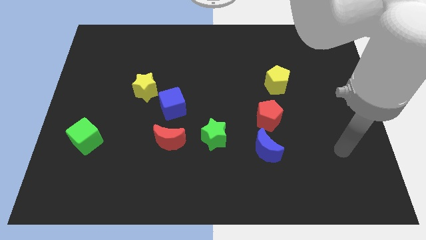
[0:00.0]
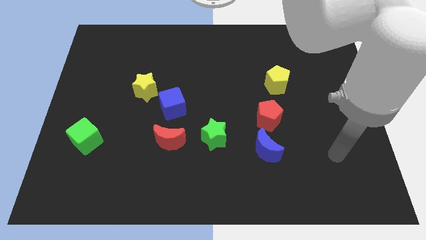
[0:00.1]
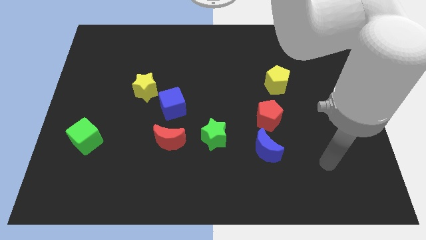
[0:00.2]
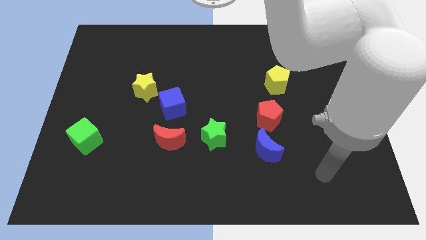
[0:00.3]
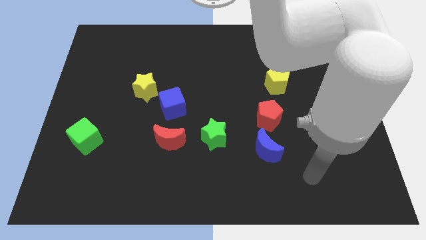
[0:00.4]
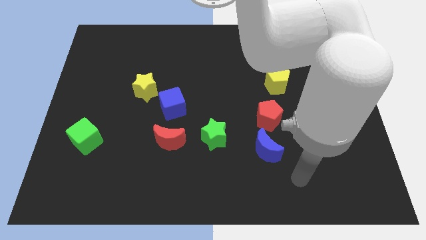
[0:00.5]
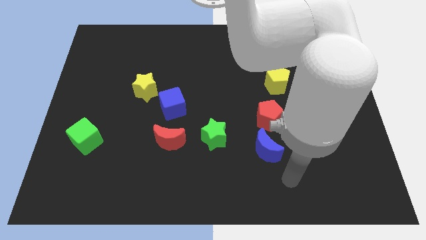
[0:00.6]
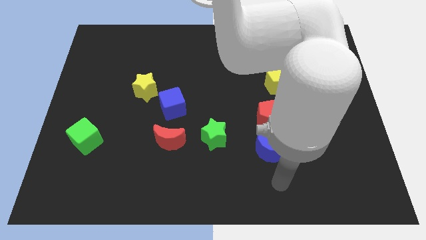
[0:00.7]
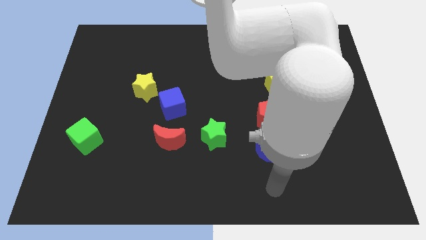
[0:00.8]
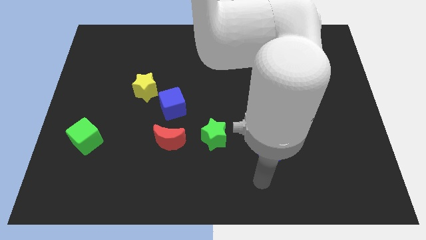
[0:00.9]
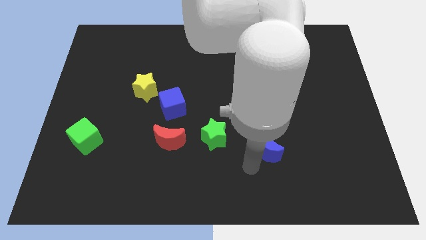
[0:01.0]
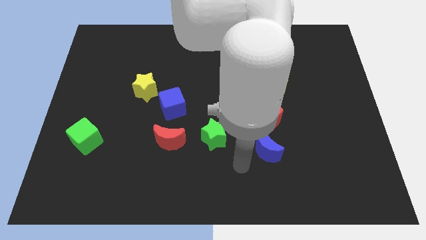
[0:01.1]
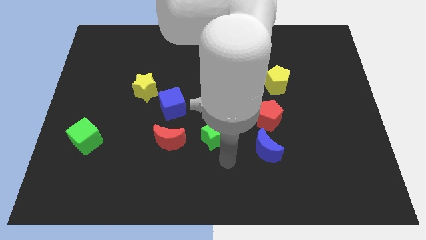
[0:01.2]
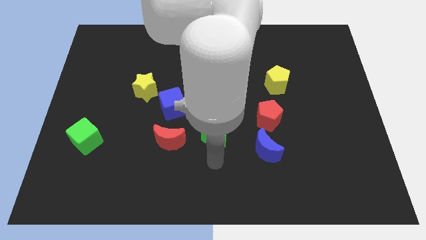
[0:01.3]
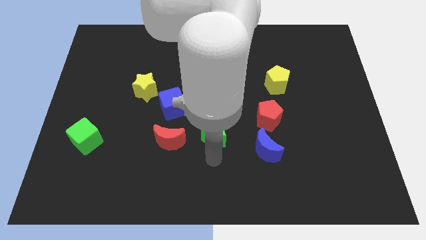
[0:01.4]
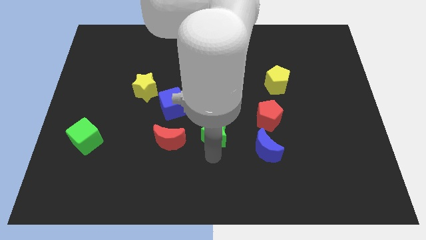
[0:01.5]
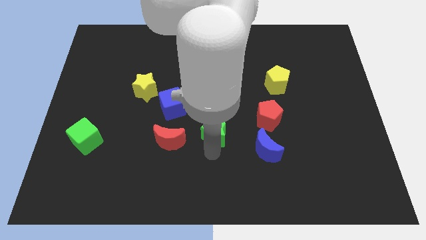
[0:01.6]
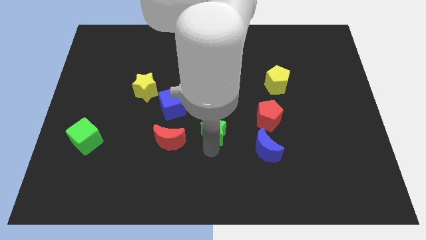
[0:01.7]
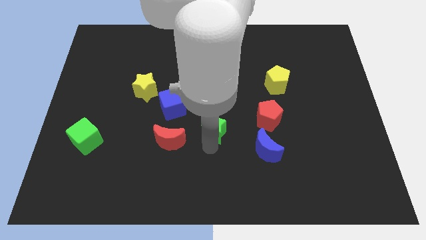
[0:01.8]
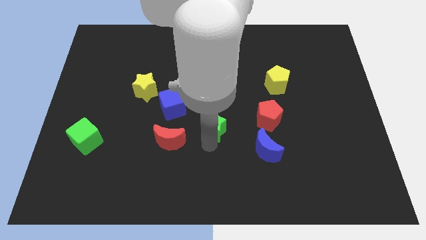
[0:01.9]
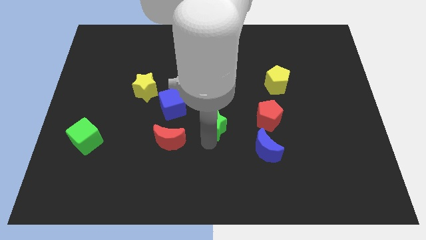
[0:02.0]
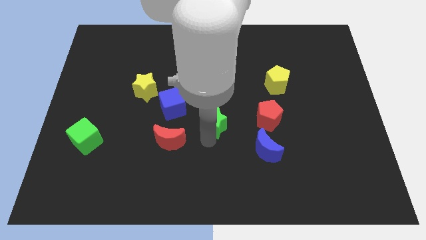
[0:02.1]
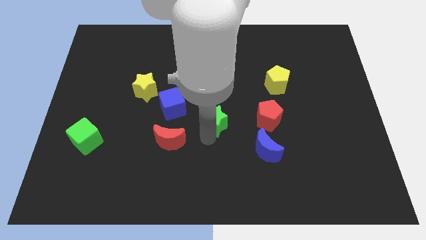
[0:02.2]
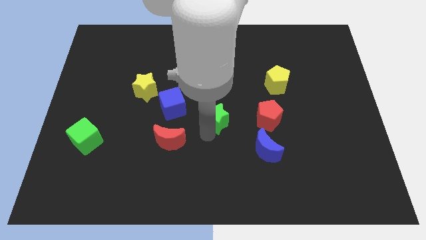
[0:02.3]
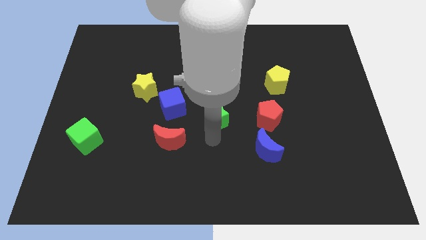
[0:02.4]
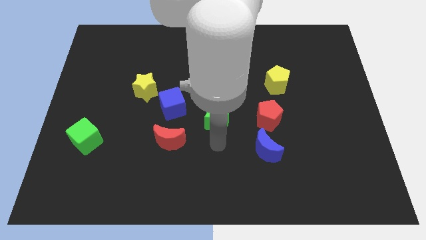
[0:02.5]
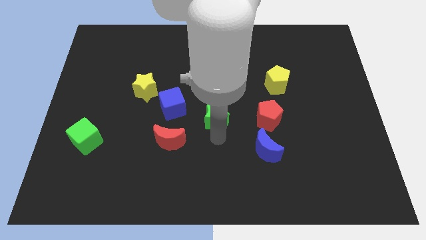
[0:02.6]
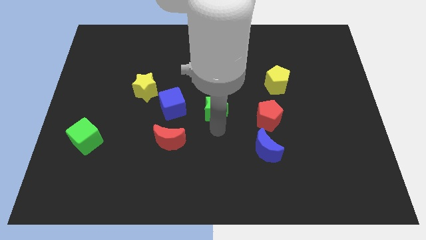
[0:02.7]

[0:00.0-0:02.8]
slightly slide the green star upwards

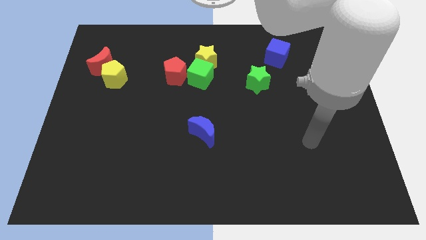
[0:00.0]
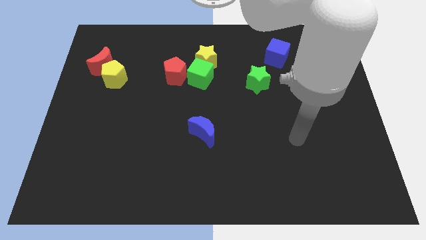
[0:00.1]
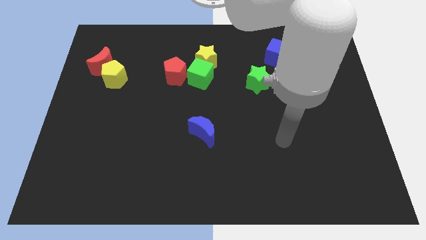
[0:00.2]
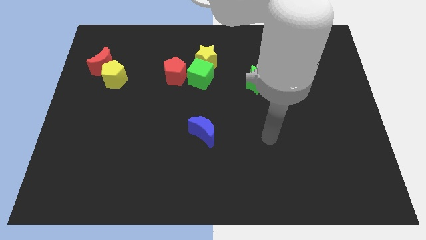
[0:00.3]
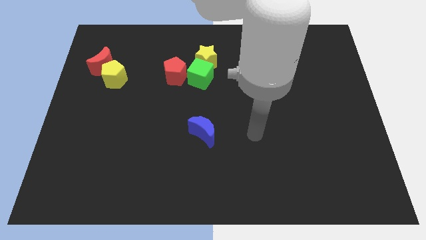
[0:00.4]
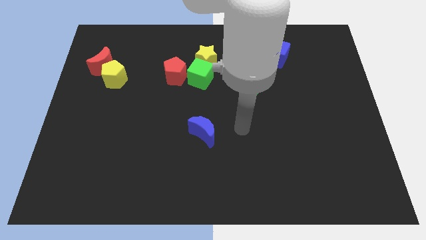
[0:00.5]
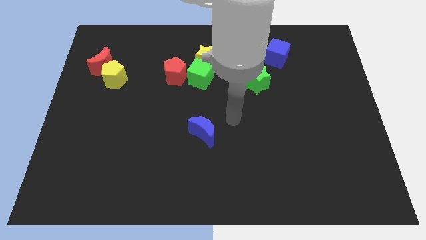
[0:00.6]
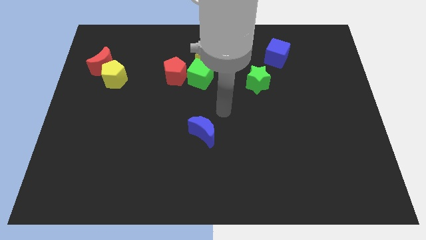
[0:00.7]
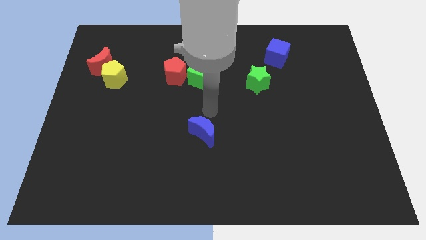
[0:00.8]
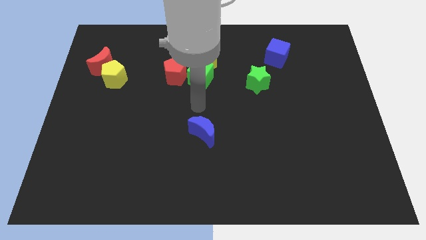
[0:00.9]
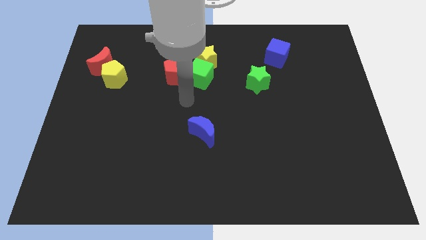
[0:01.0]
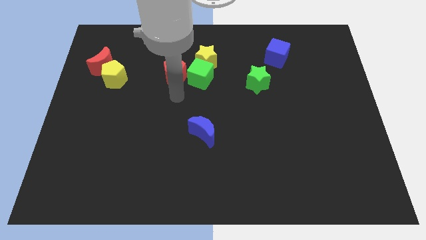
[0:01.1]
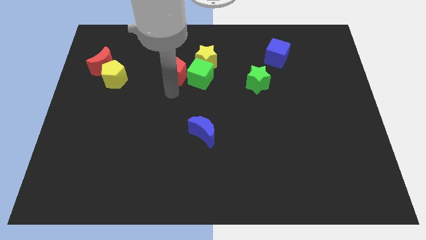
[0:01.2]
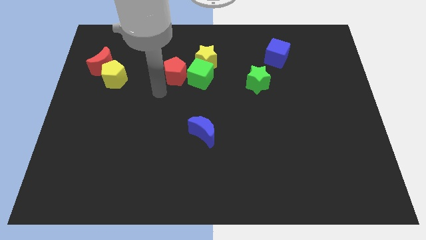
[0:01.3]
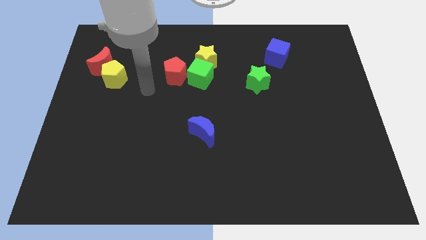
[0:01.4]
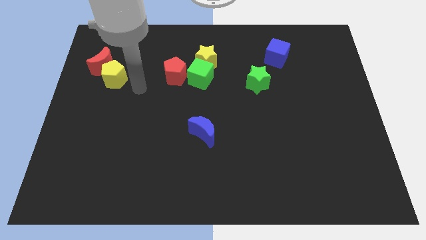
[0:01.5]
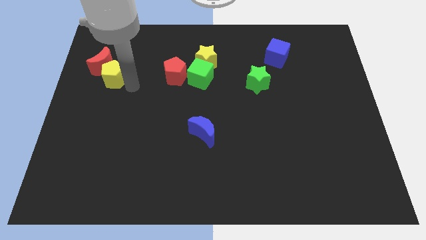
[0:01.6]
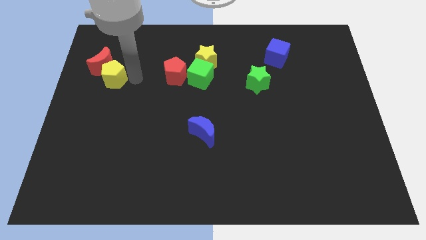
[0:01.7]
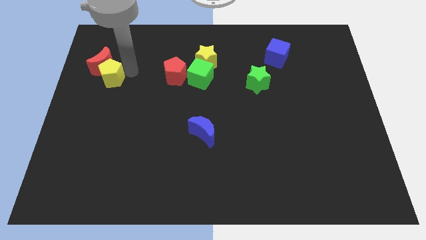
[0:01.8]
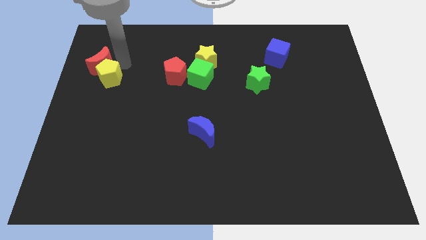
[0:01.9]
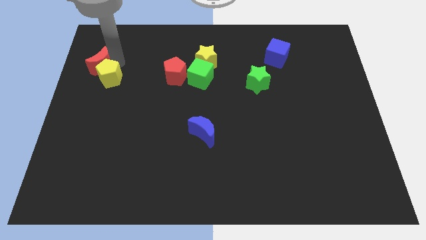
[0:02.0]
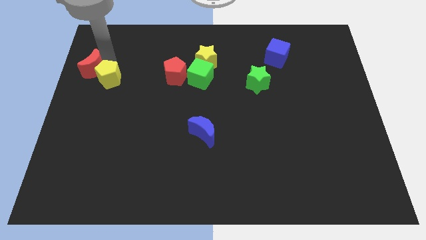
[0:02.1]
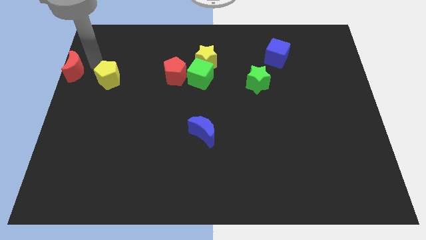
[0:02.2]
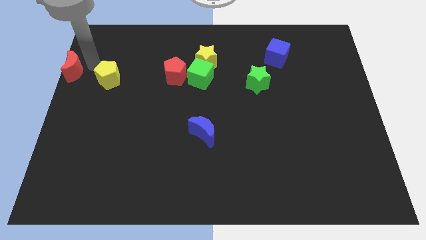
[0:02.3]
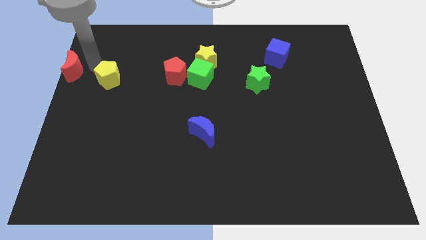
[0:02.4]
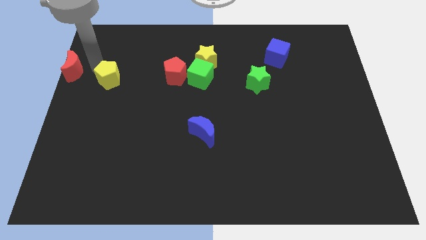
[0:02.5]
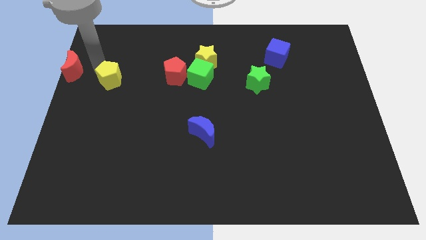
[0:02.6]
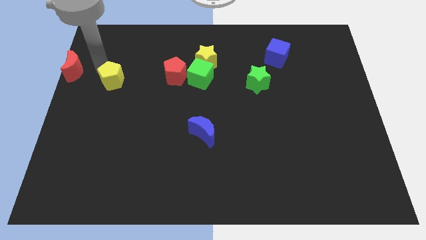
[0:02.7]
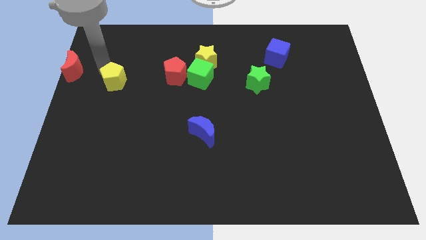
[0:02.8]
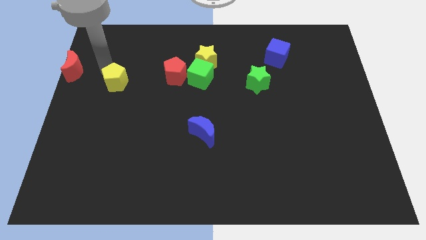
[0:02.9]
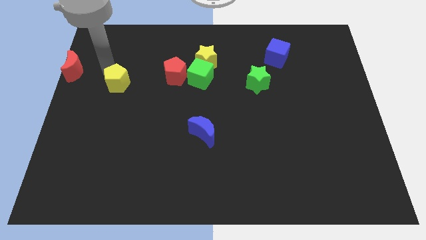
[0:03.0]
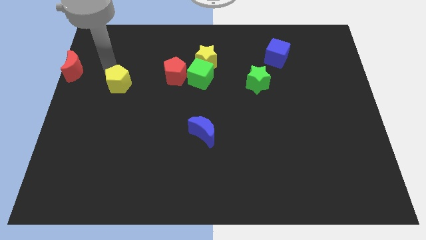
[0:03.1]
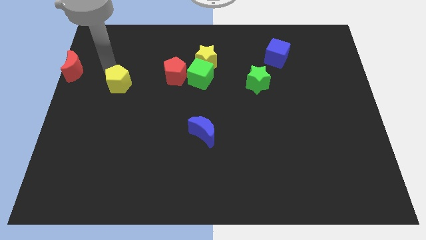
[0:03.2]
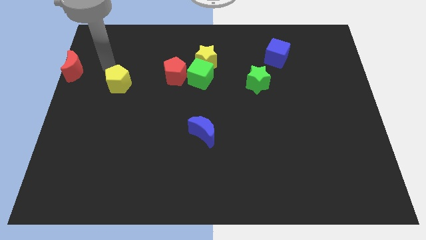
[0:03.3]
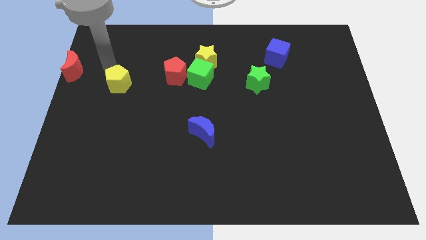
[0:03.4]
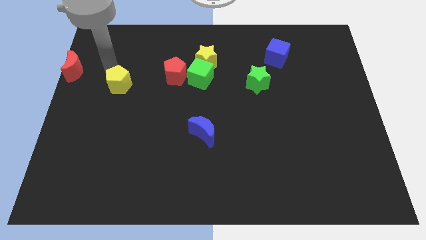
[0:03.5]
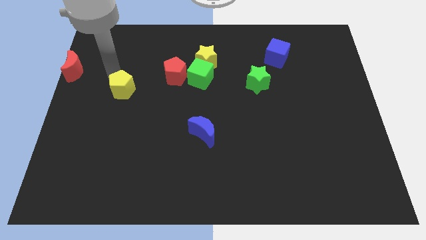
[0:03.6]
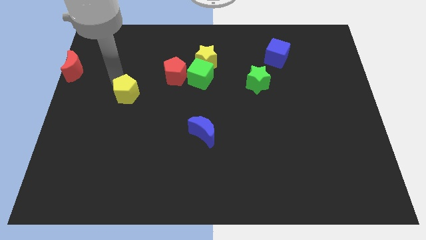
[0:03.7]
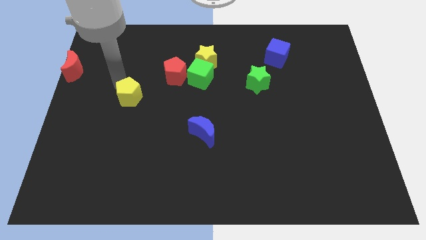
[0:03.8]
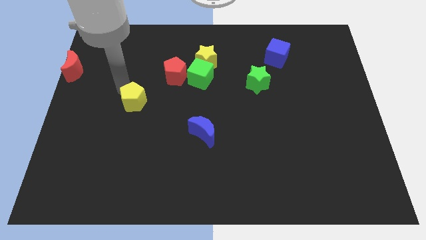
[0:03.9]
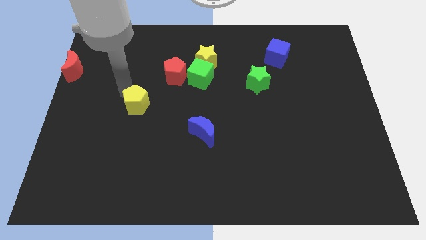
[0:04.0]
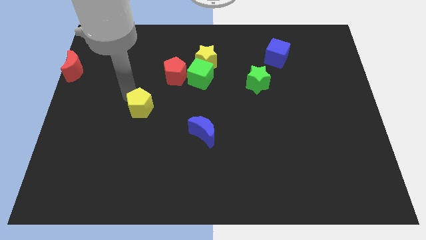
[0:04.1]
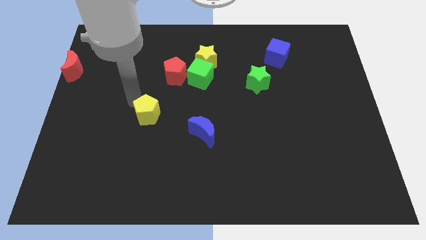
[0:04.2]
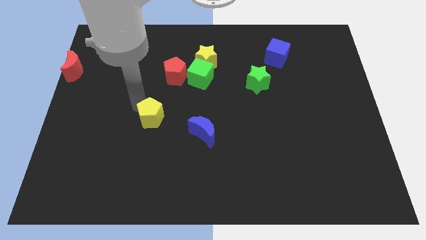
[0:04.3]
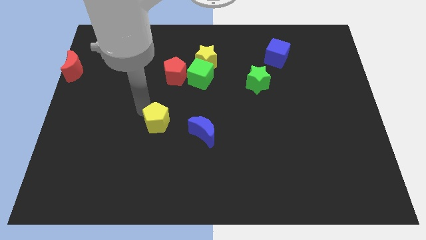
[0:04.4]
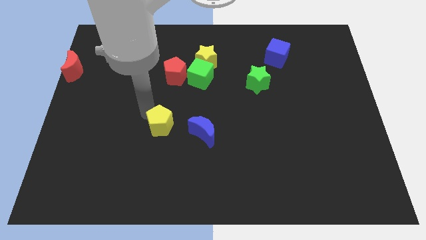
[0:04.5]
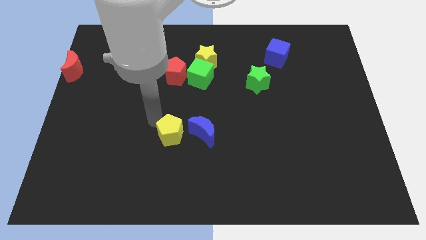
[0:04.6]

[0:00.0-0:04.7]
push the yellow pentagon diagonally down and to the right

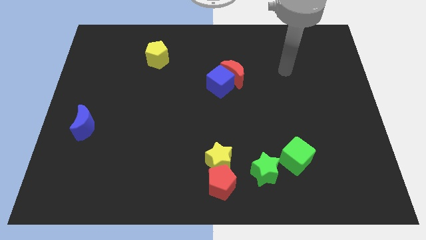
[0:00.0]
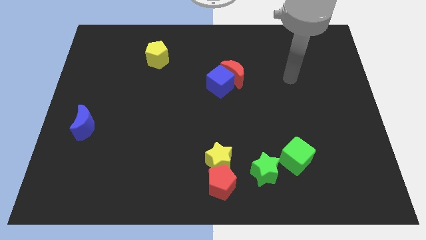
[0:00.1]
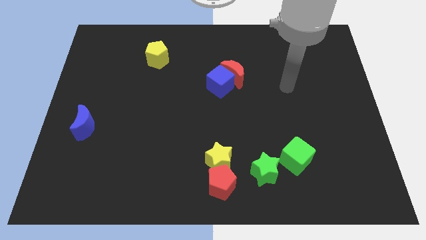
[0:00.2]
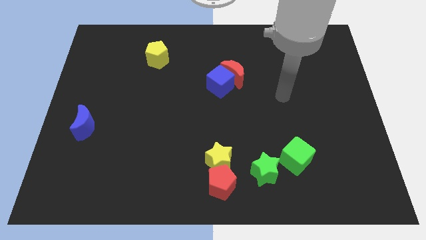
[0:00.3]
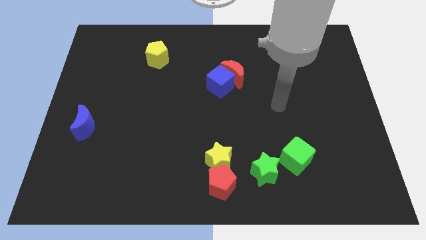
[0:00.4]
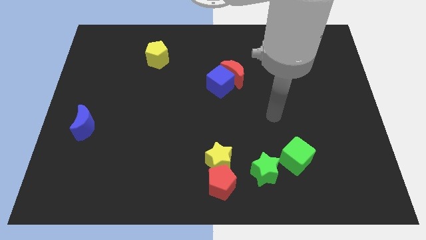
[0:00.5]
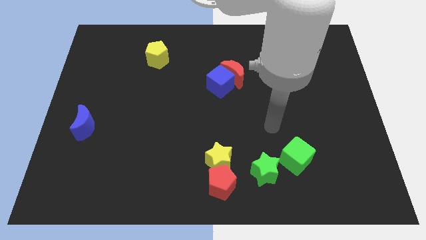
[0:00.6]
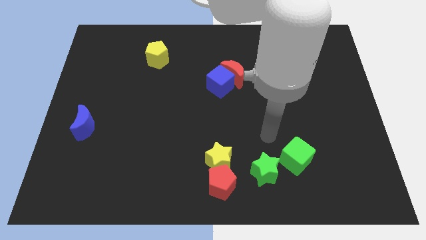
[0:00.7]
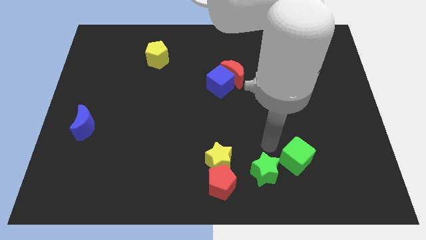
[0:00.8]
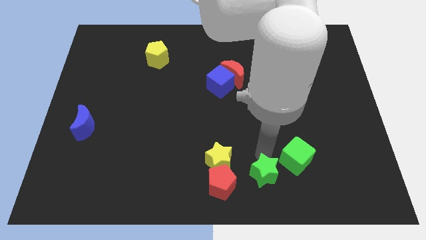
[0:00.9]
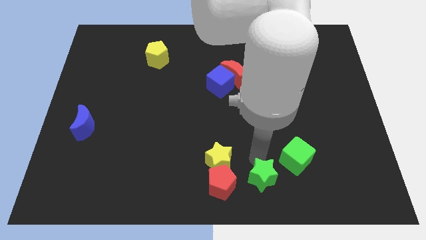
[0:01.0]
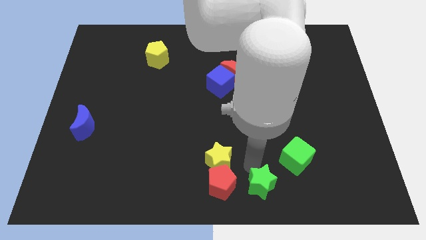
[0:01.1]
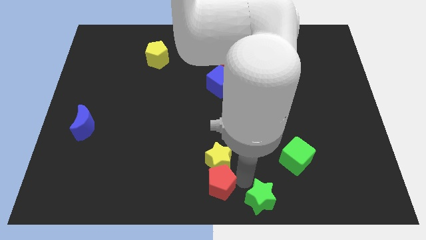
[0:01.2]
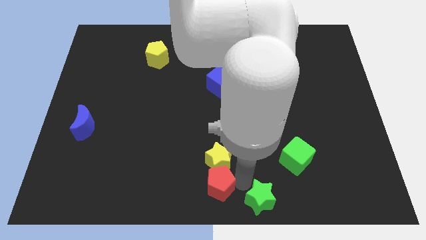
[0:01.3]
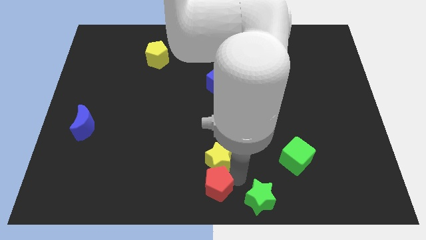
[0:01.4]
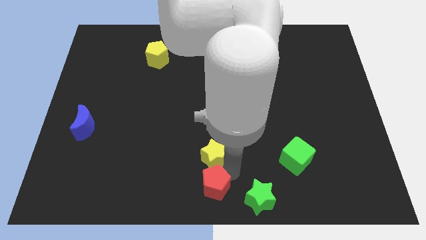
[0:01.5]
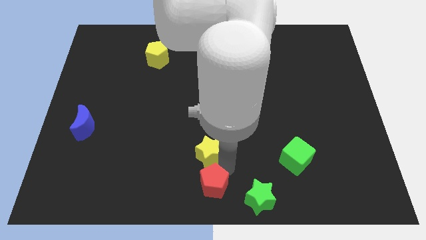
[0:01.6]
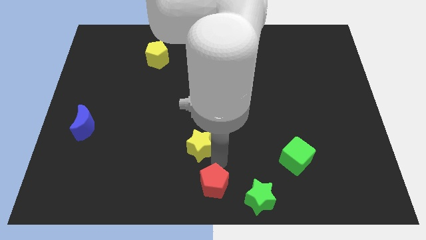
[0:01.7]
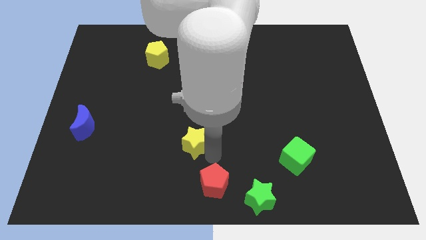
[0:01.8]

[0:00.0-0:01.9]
slide the yellow star upwards and to the left somewhat
